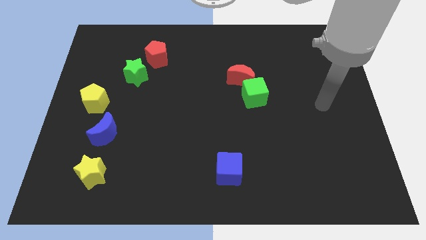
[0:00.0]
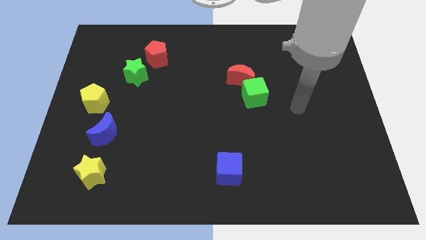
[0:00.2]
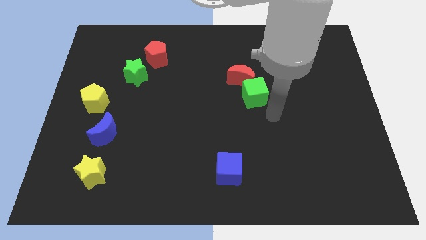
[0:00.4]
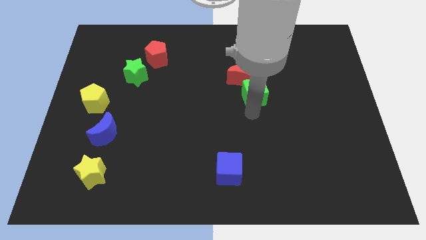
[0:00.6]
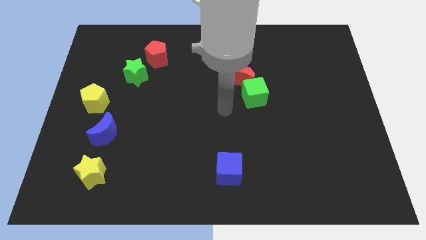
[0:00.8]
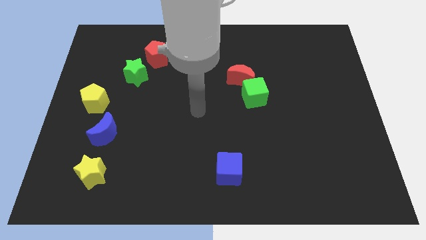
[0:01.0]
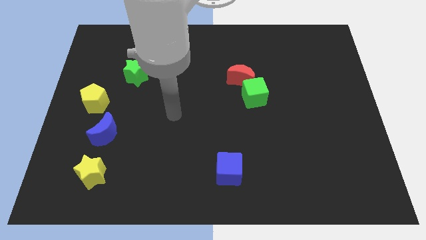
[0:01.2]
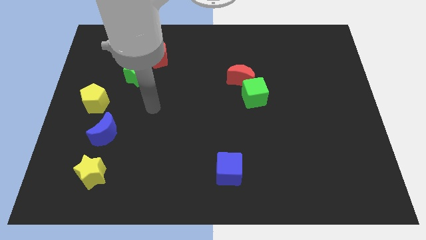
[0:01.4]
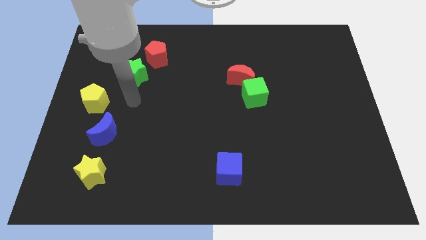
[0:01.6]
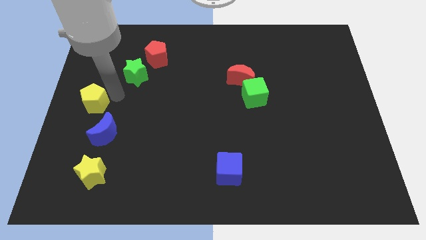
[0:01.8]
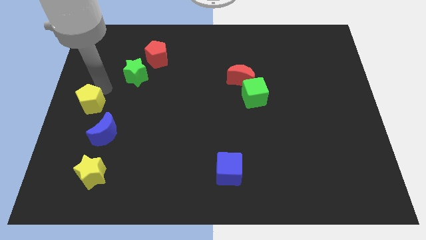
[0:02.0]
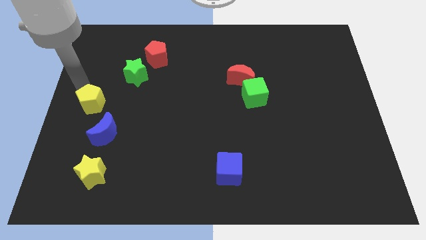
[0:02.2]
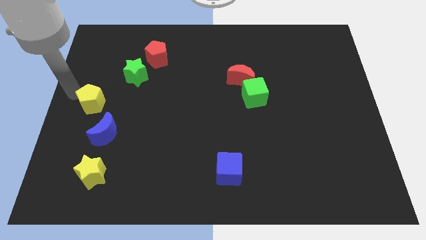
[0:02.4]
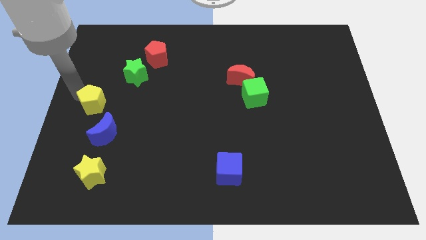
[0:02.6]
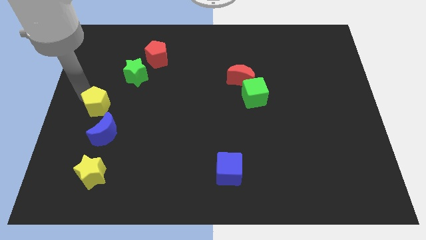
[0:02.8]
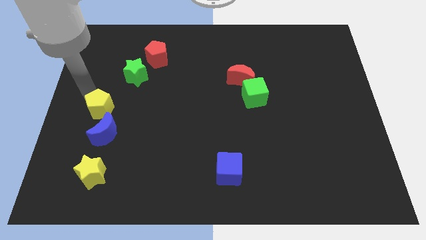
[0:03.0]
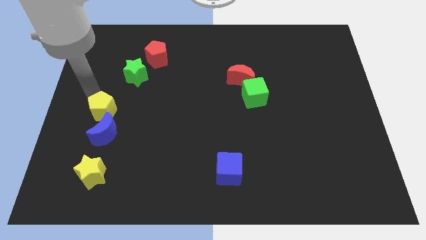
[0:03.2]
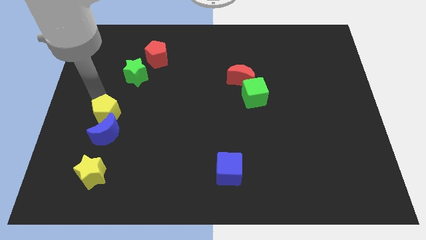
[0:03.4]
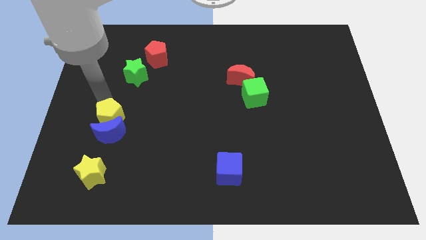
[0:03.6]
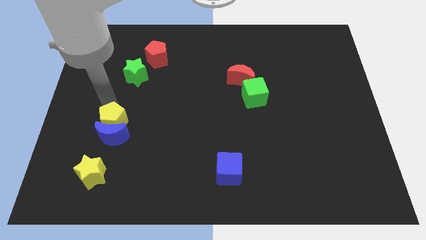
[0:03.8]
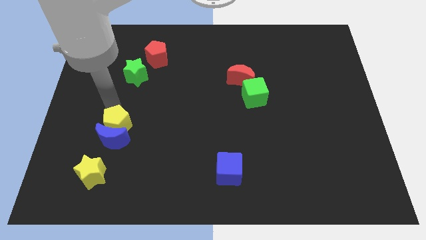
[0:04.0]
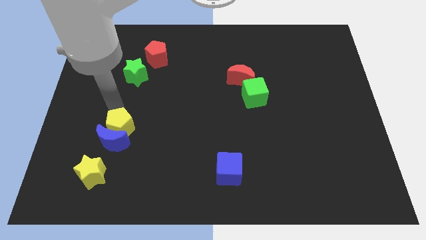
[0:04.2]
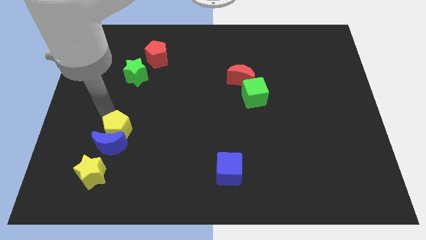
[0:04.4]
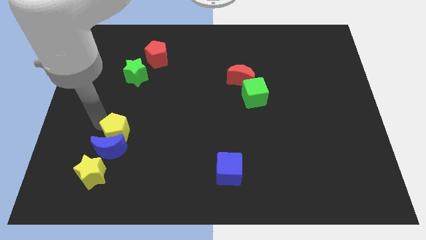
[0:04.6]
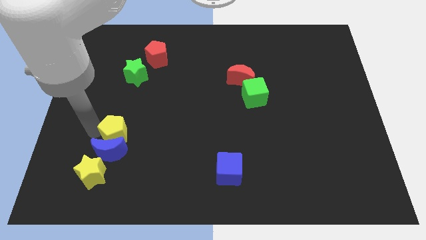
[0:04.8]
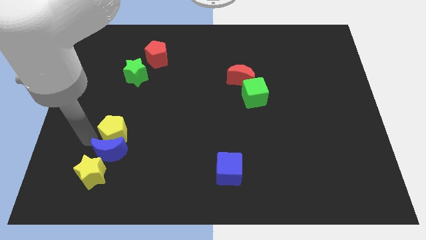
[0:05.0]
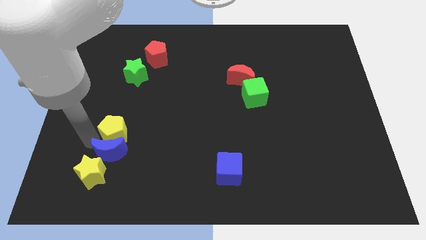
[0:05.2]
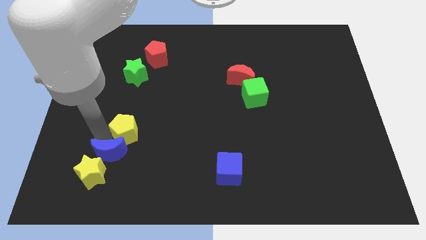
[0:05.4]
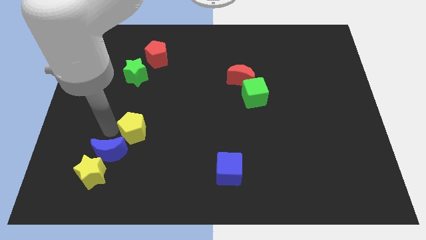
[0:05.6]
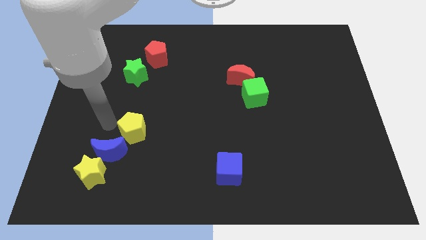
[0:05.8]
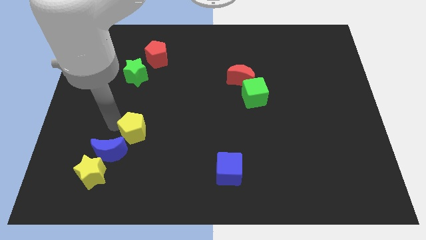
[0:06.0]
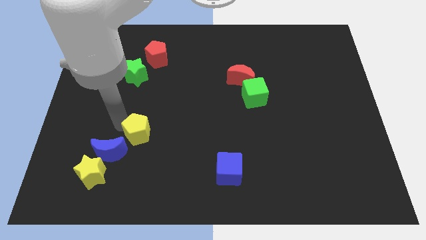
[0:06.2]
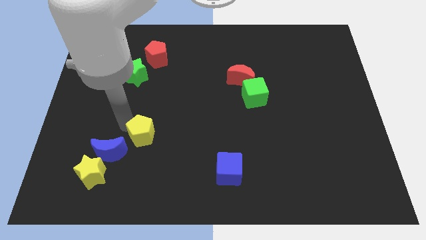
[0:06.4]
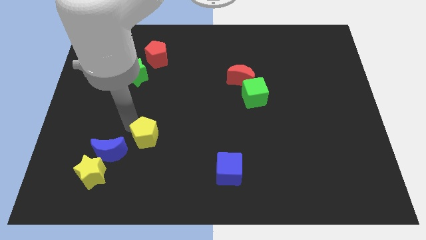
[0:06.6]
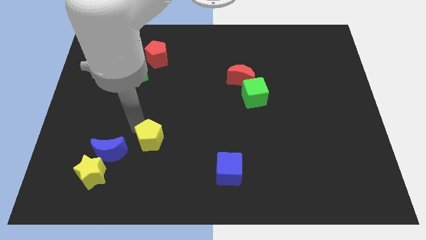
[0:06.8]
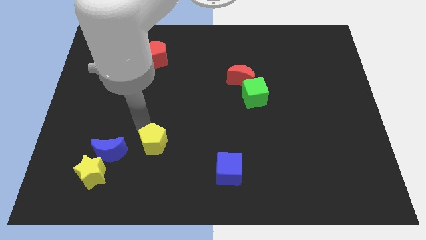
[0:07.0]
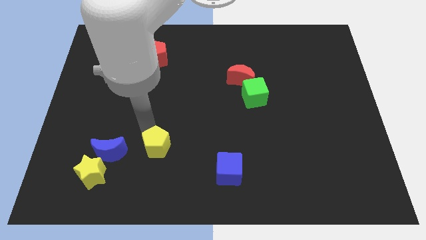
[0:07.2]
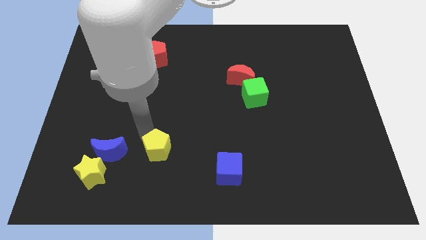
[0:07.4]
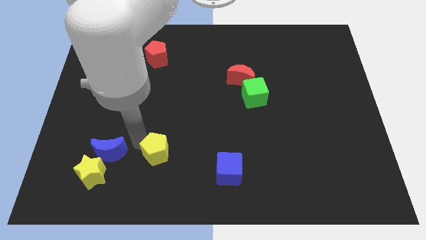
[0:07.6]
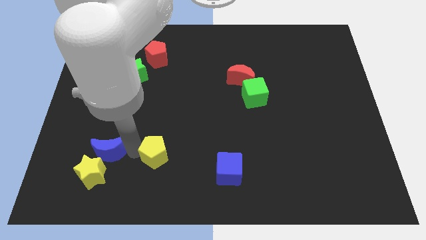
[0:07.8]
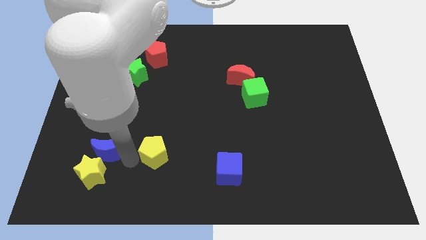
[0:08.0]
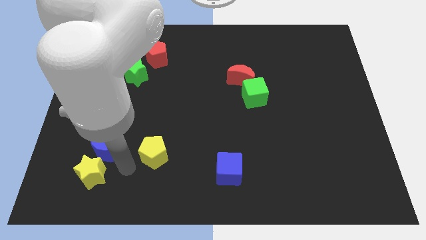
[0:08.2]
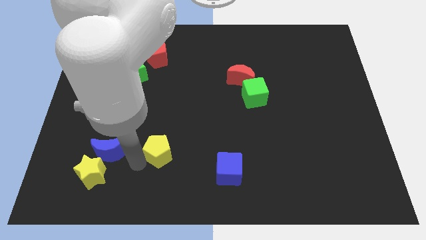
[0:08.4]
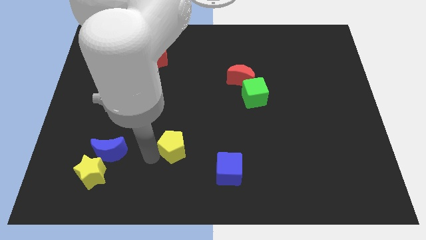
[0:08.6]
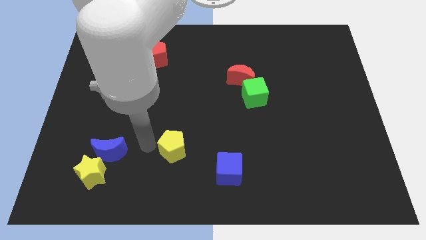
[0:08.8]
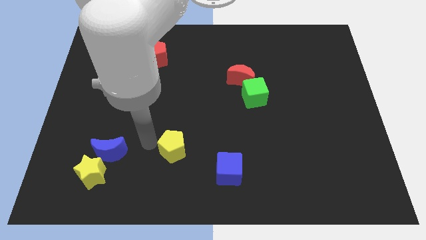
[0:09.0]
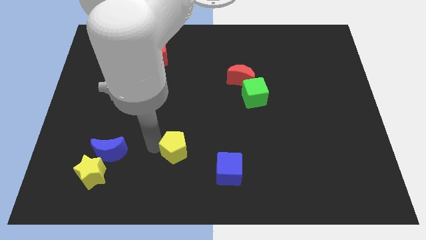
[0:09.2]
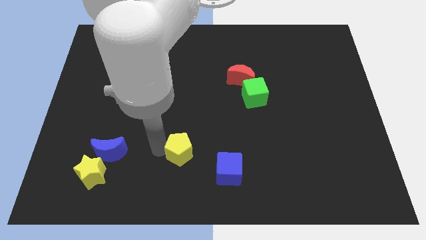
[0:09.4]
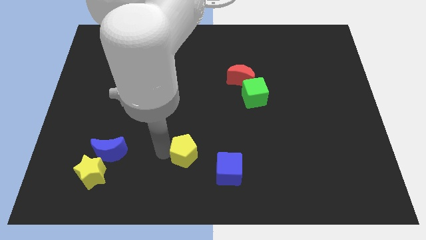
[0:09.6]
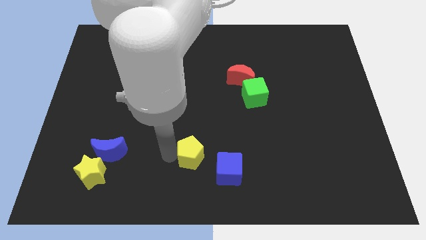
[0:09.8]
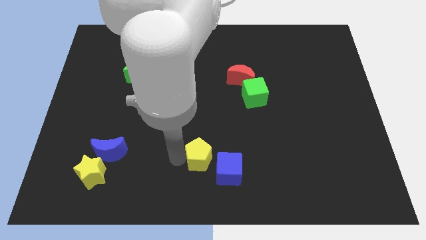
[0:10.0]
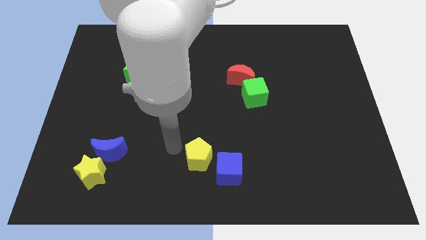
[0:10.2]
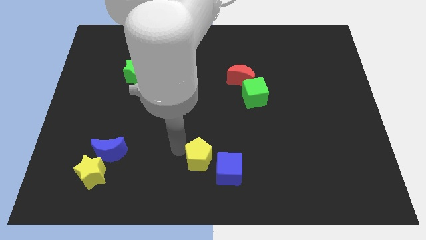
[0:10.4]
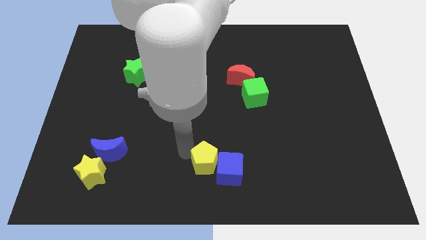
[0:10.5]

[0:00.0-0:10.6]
push the yellow pentagon towards the blue cube

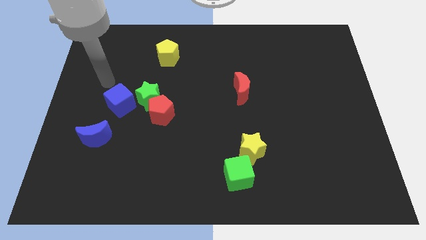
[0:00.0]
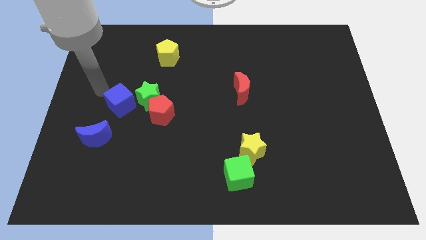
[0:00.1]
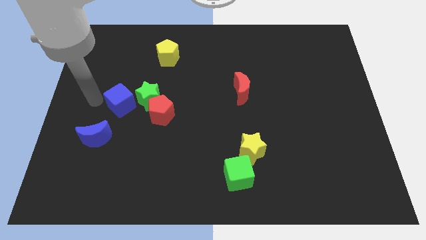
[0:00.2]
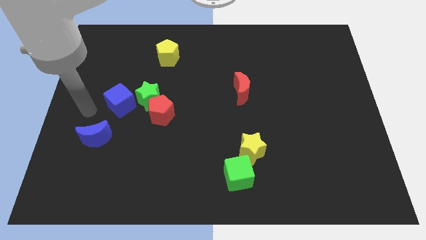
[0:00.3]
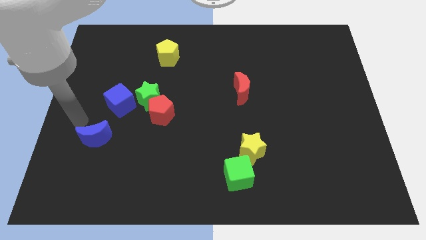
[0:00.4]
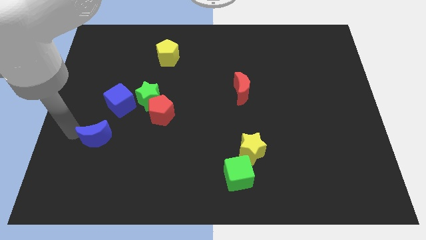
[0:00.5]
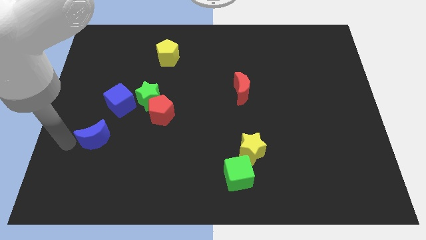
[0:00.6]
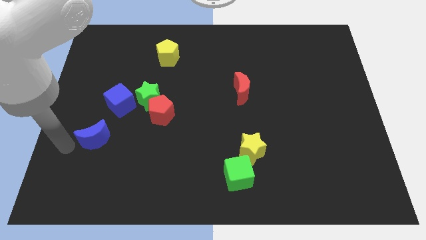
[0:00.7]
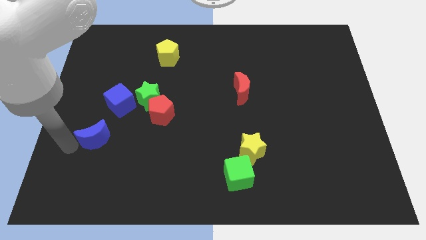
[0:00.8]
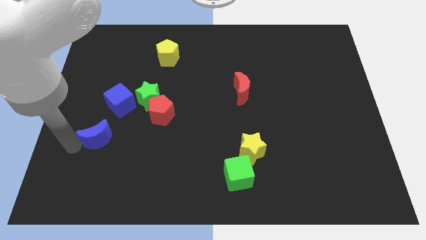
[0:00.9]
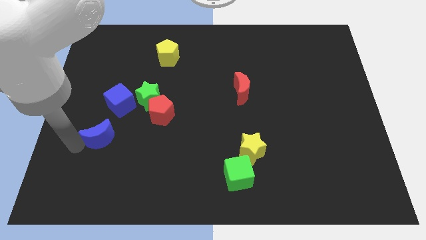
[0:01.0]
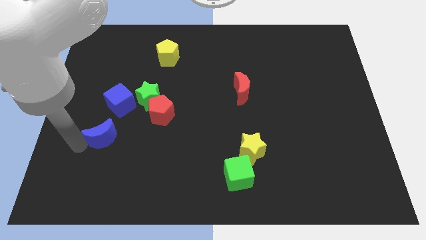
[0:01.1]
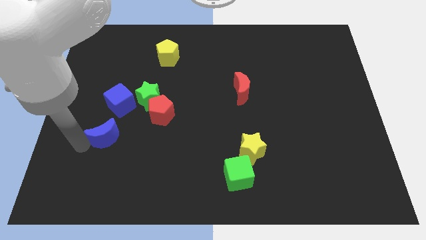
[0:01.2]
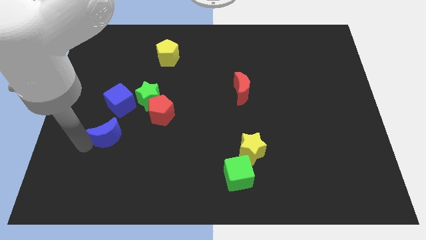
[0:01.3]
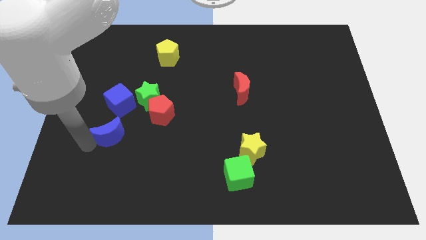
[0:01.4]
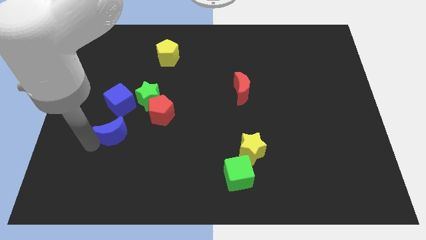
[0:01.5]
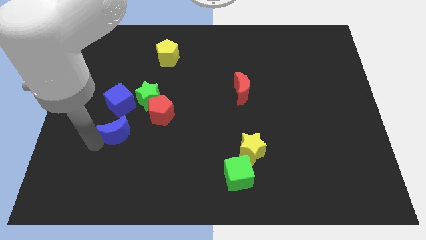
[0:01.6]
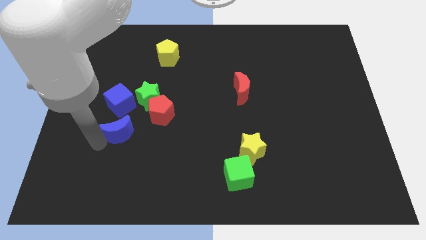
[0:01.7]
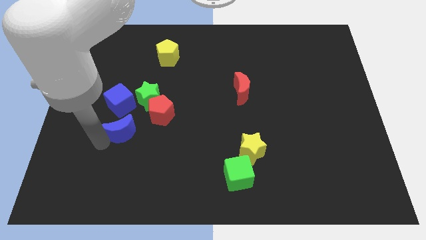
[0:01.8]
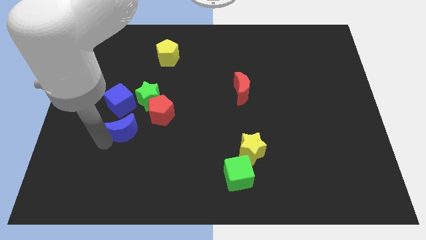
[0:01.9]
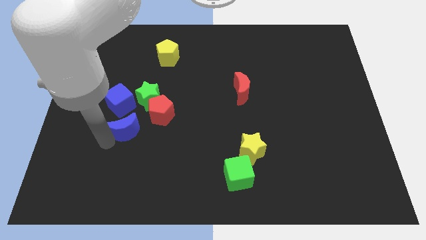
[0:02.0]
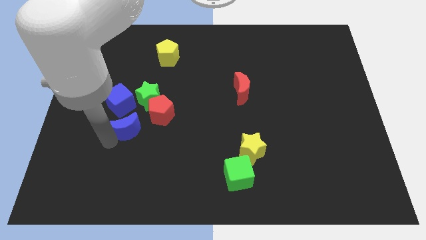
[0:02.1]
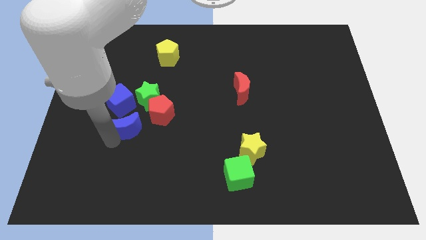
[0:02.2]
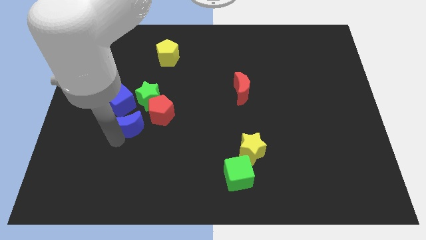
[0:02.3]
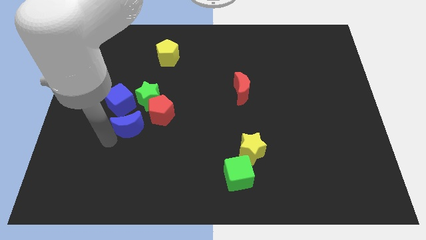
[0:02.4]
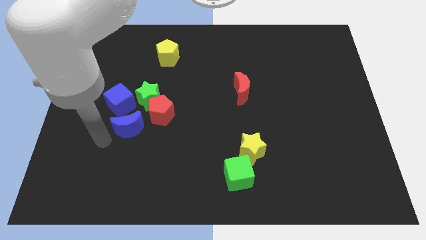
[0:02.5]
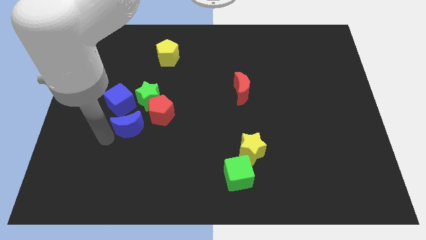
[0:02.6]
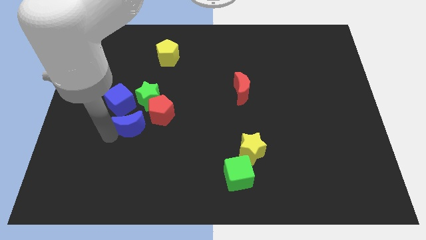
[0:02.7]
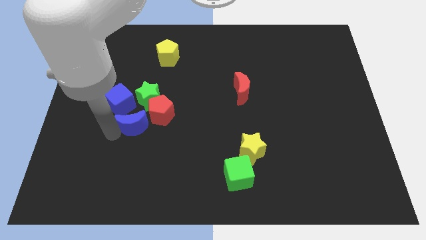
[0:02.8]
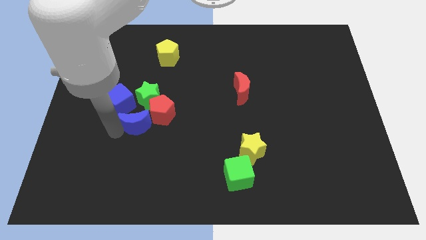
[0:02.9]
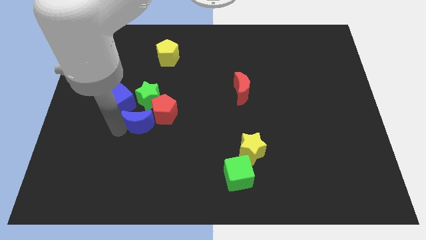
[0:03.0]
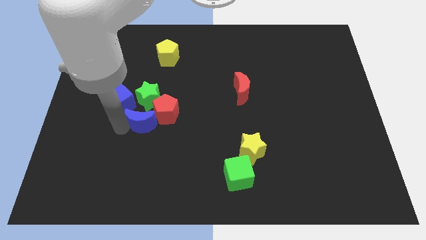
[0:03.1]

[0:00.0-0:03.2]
slide the blue moon to the red pentagon
